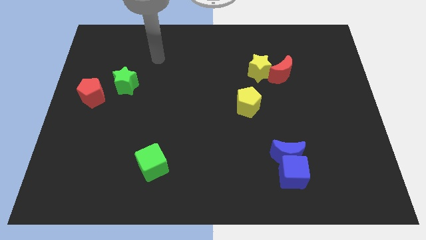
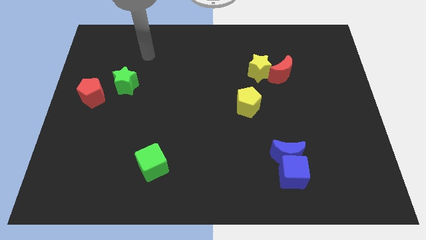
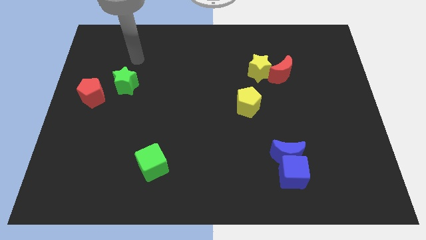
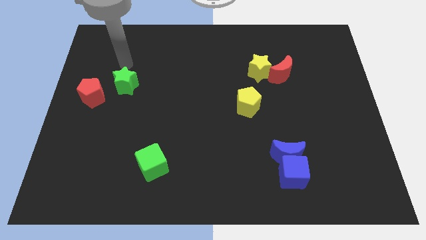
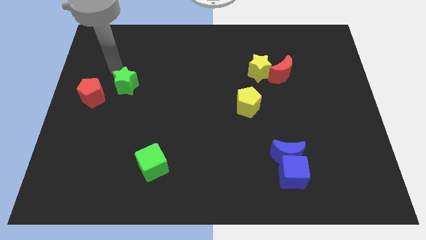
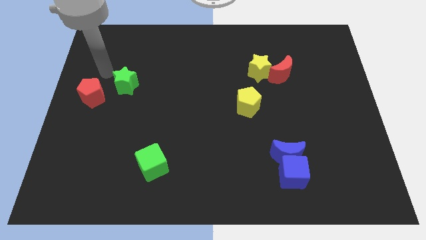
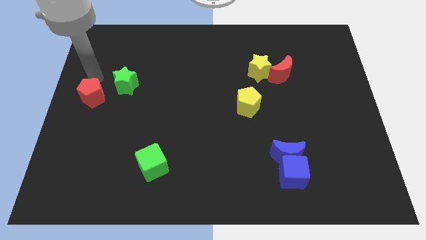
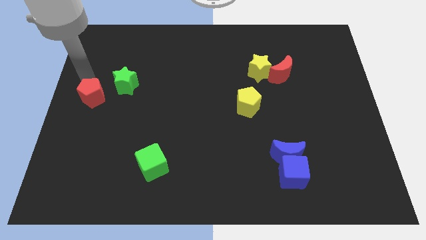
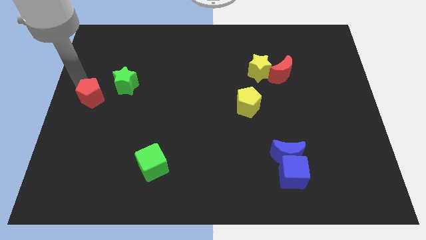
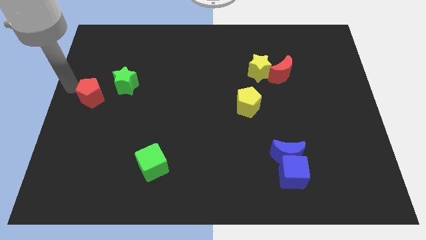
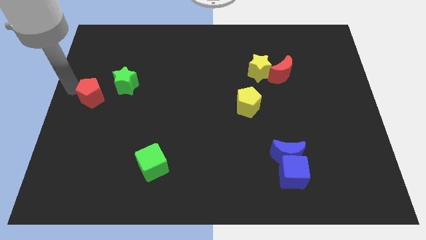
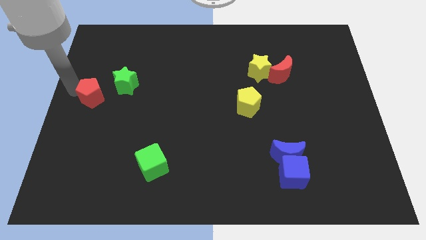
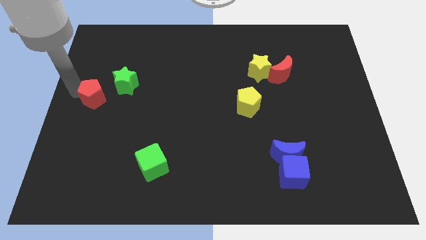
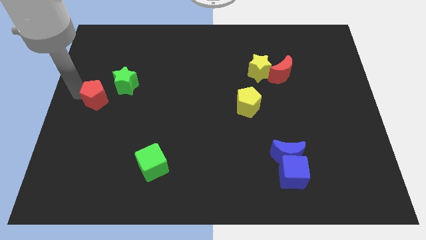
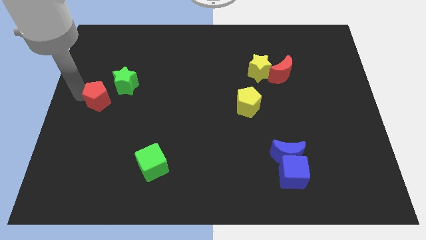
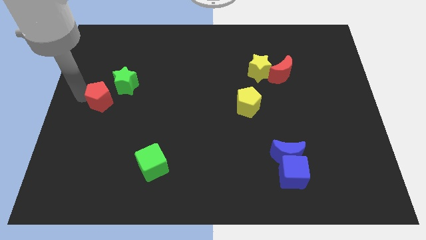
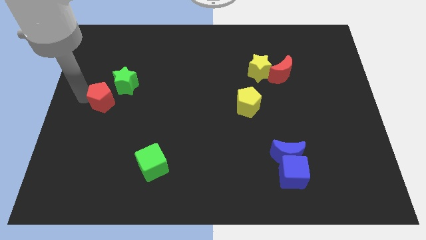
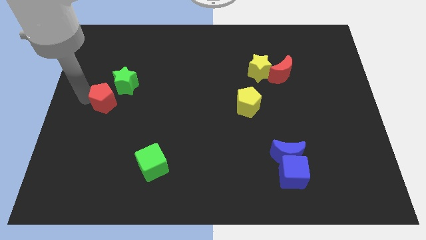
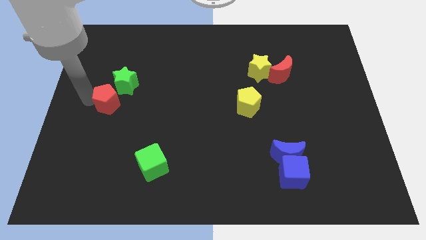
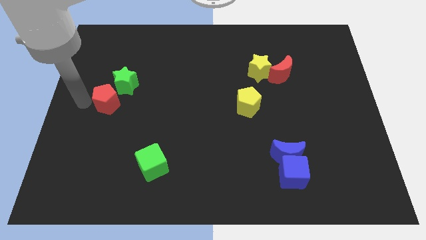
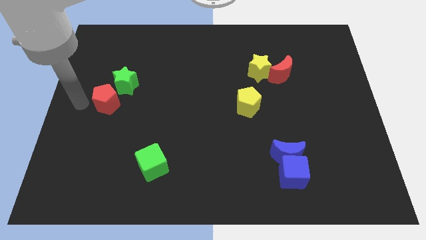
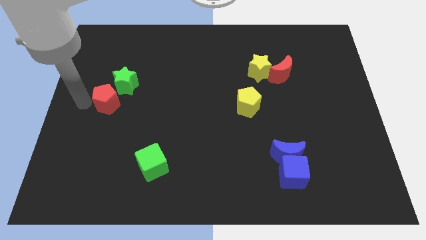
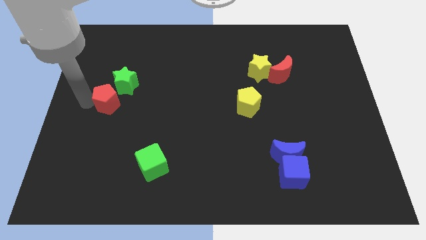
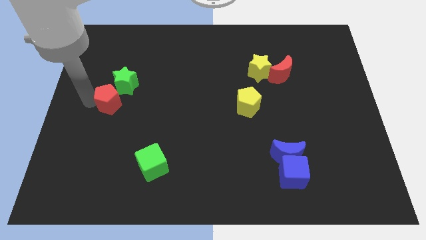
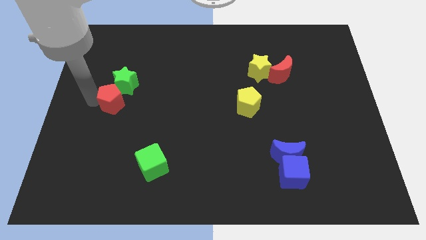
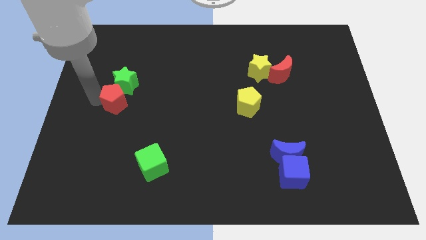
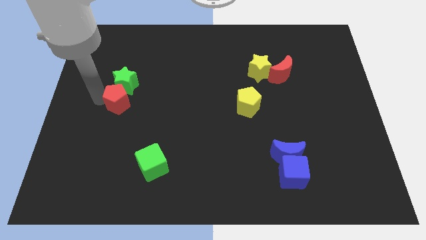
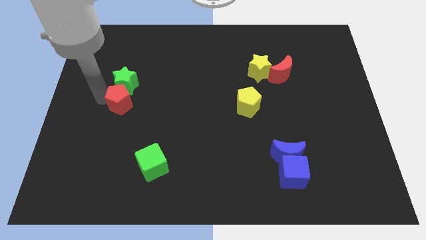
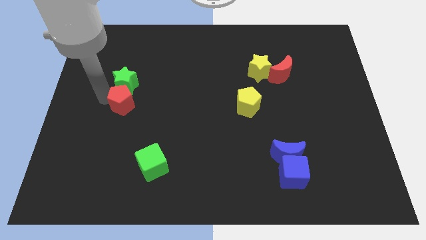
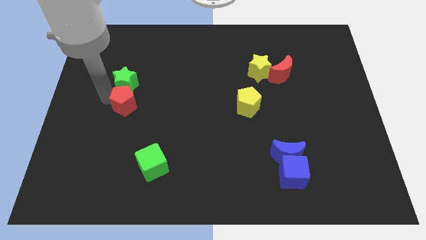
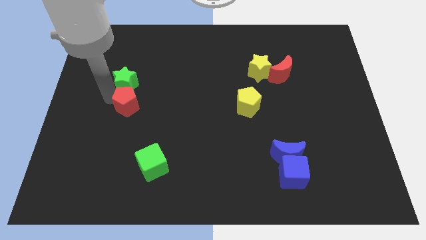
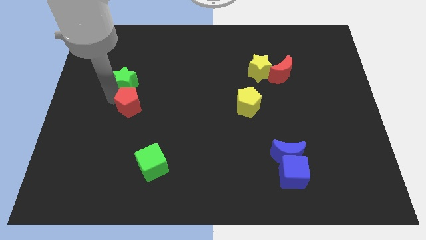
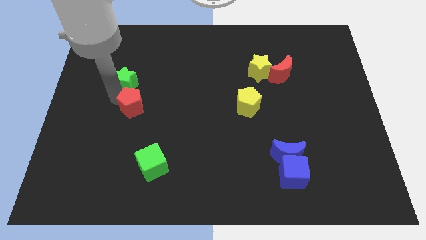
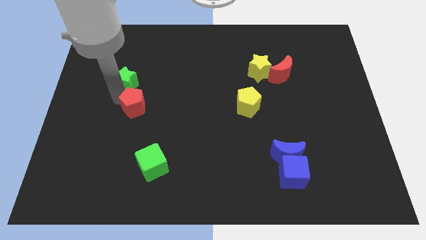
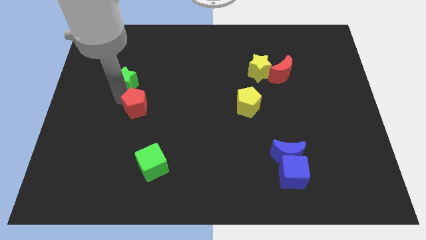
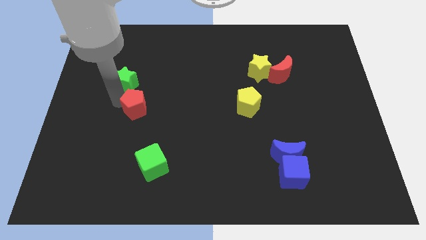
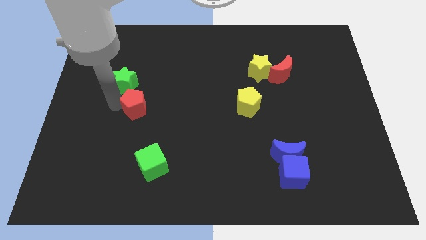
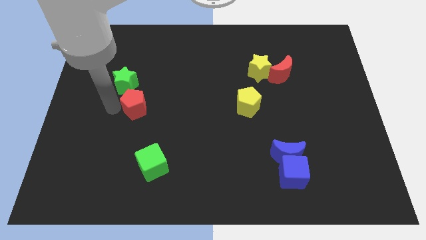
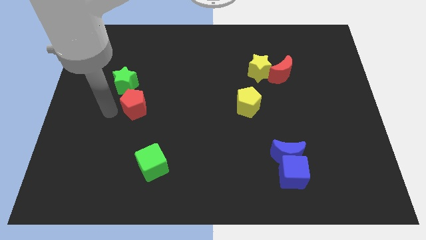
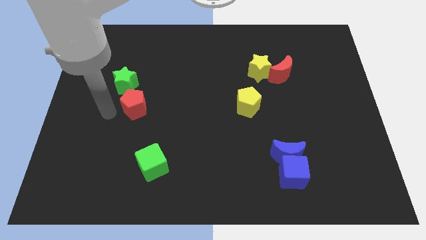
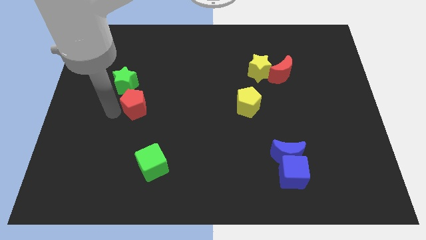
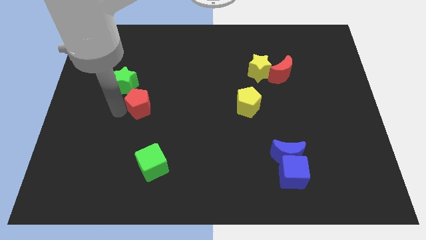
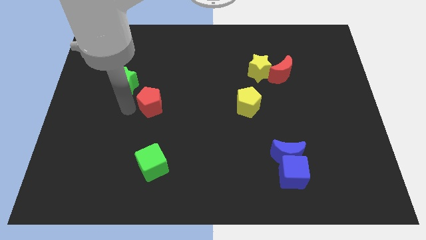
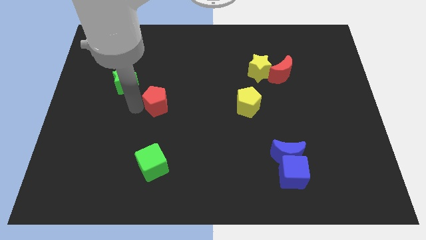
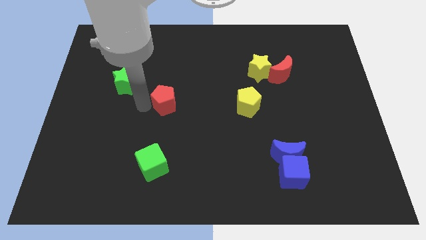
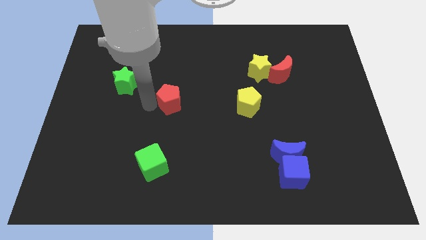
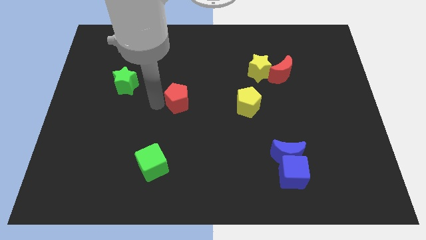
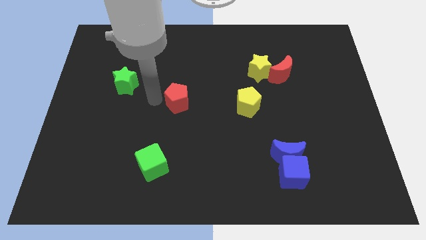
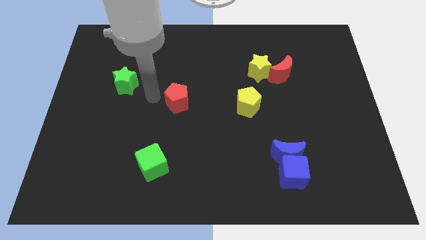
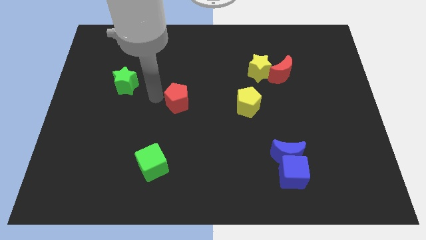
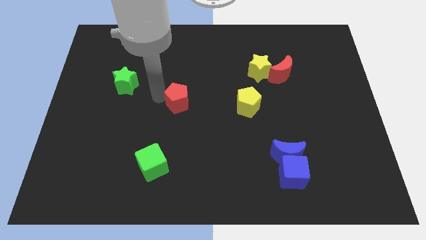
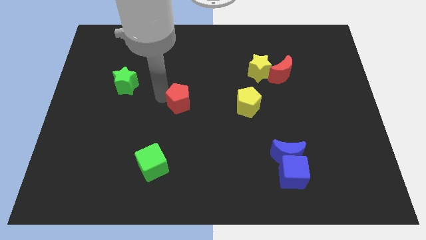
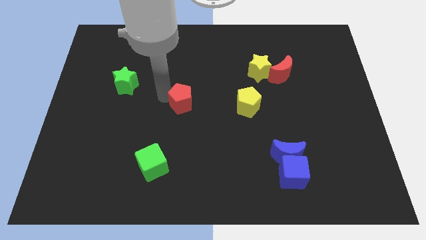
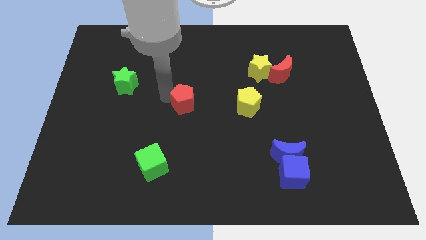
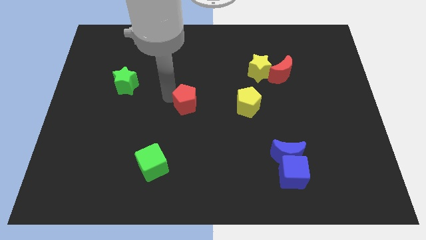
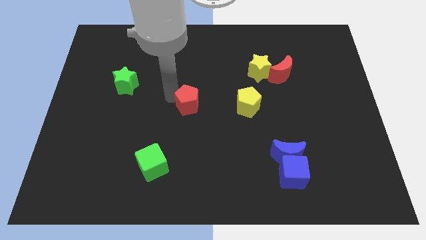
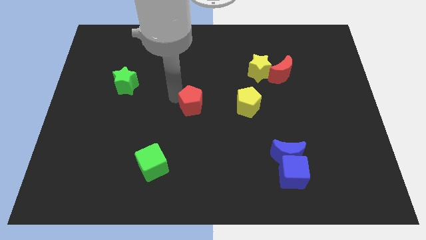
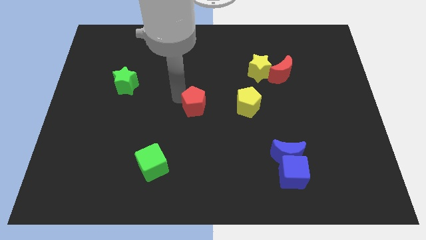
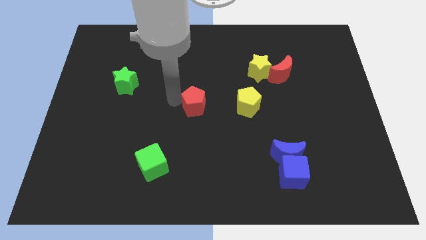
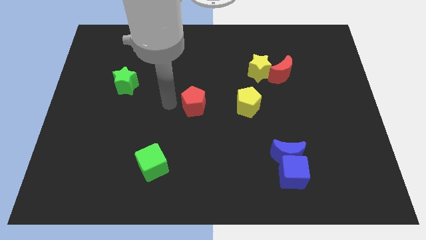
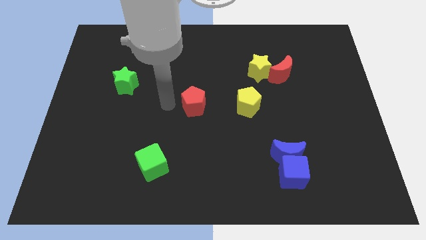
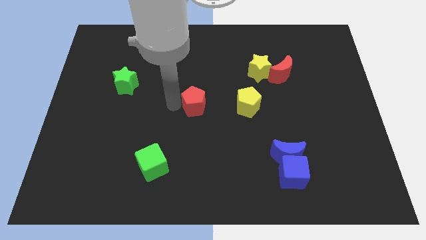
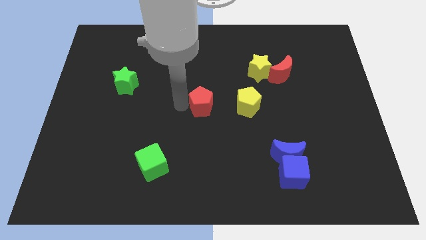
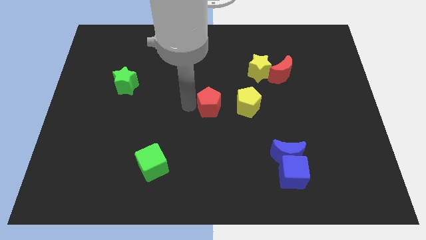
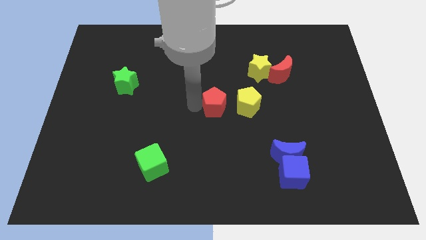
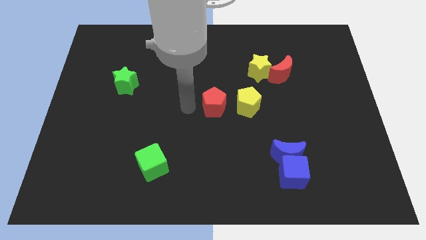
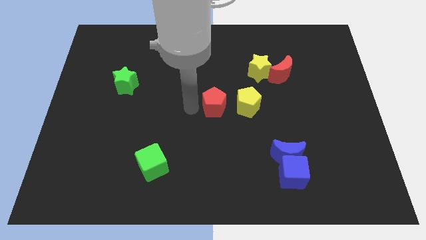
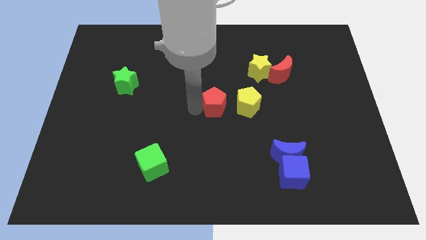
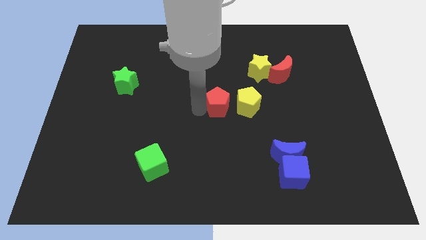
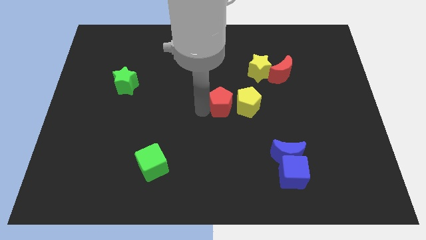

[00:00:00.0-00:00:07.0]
put the red pentagon towards the yellow pentagon

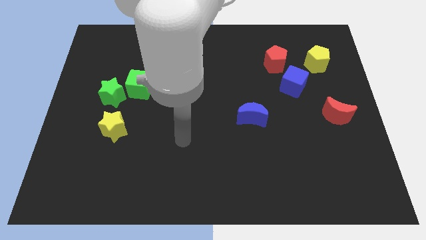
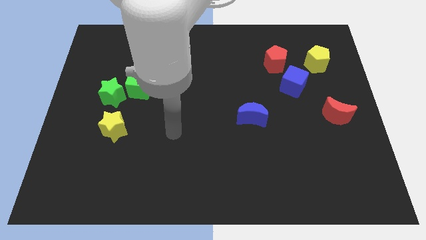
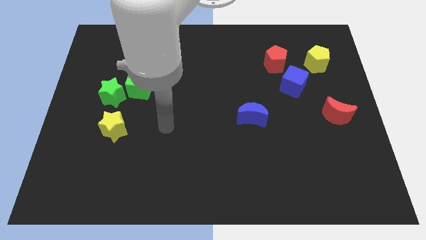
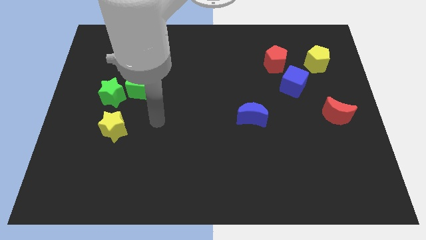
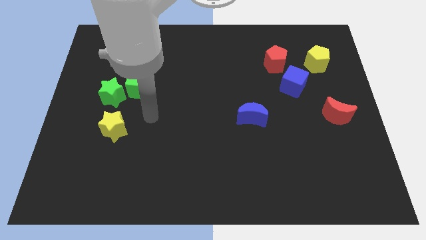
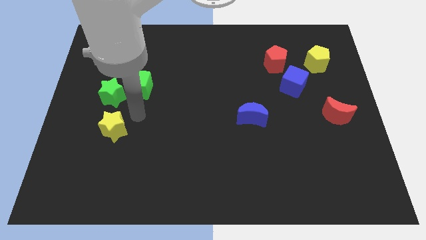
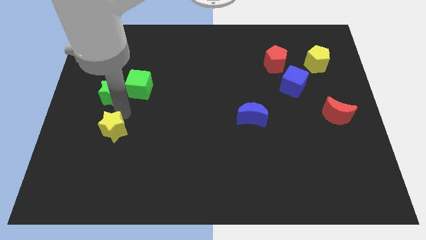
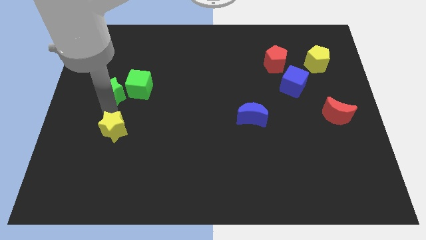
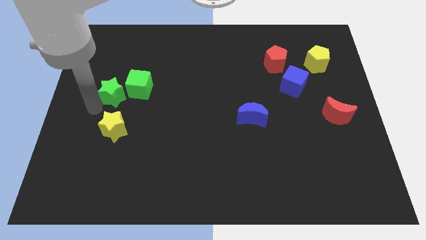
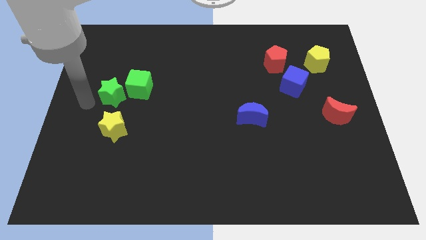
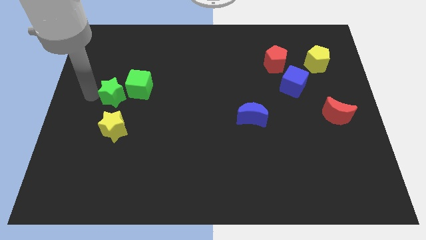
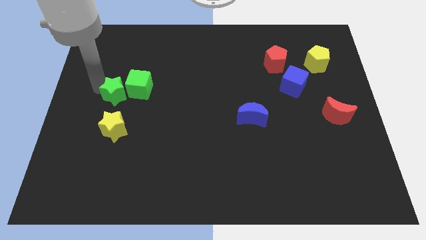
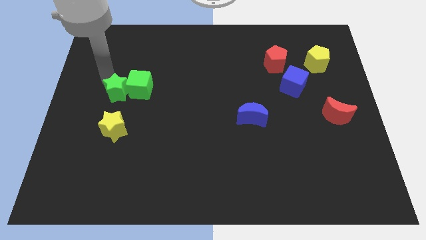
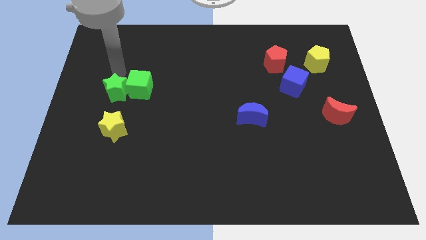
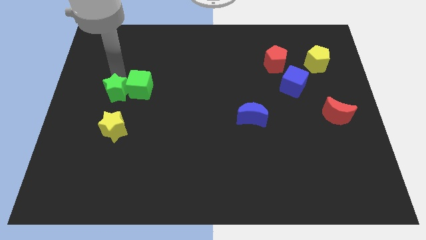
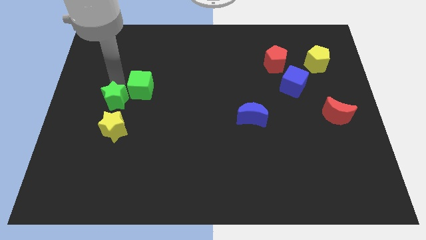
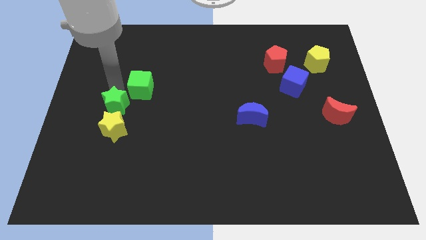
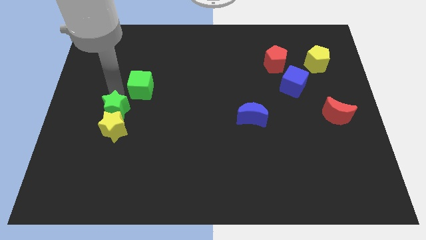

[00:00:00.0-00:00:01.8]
push the green star close to the yellow star
